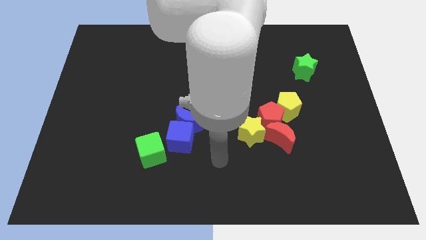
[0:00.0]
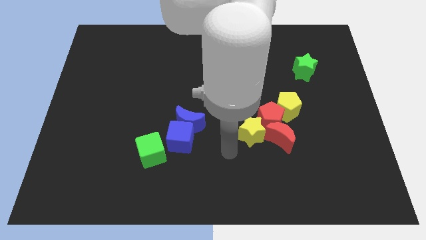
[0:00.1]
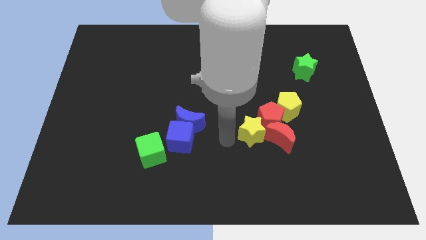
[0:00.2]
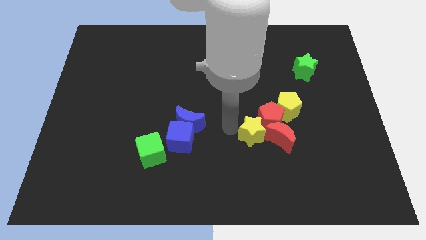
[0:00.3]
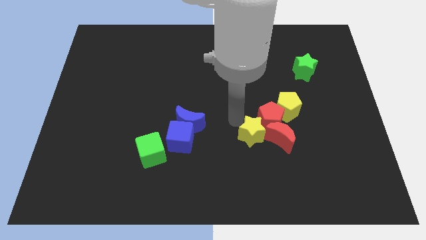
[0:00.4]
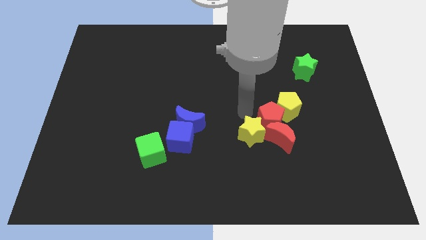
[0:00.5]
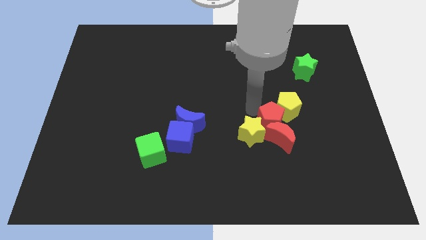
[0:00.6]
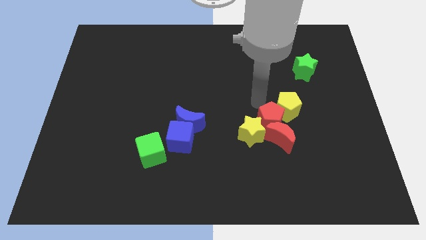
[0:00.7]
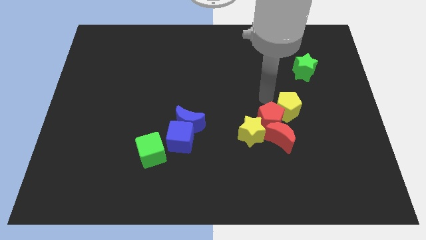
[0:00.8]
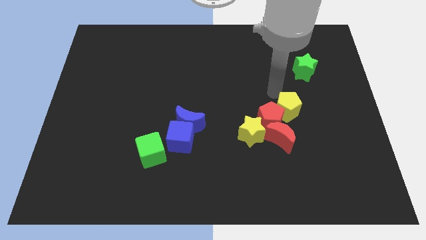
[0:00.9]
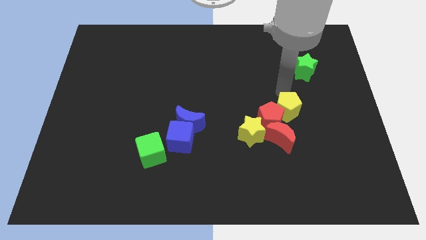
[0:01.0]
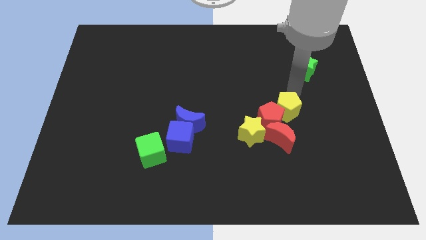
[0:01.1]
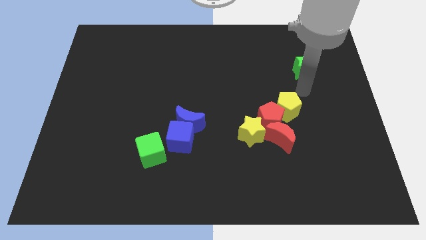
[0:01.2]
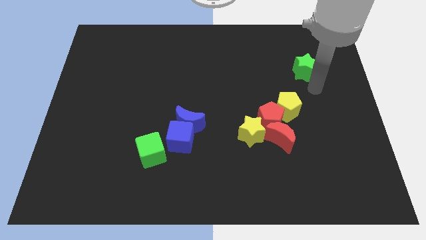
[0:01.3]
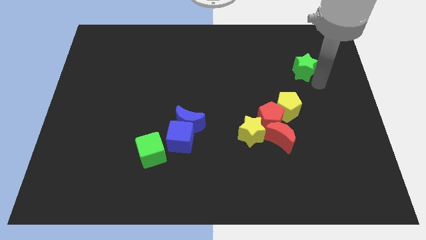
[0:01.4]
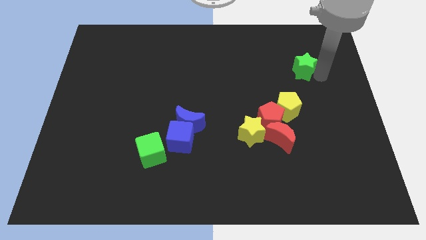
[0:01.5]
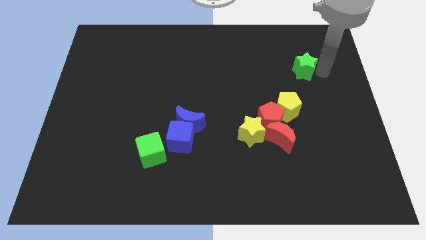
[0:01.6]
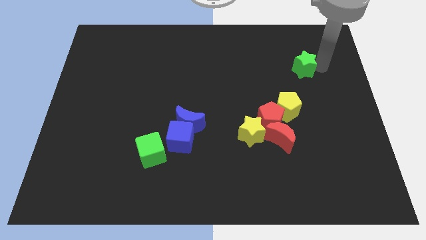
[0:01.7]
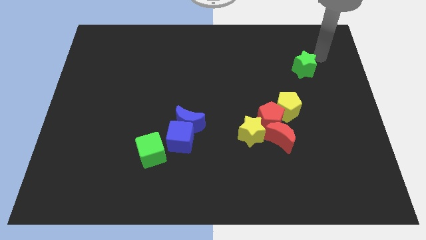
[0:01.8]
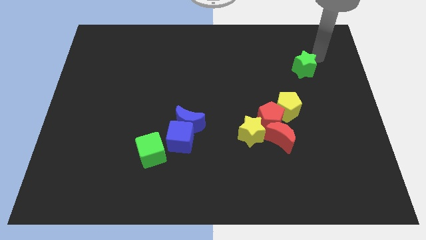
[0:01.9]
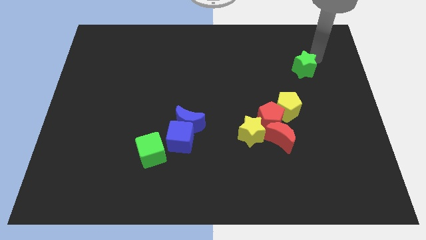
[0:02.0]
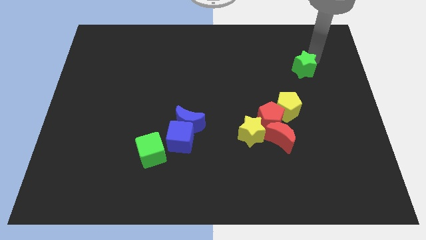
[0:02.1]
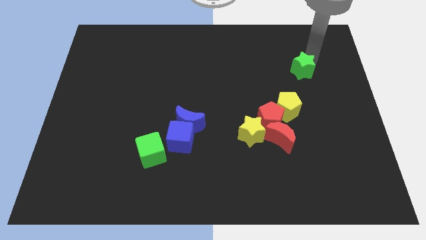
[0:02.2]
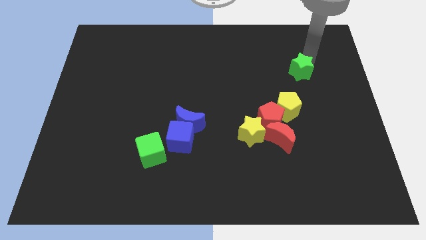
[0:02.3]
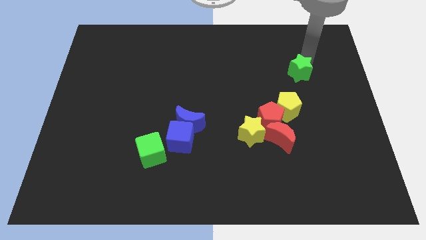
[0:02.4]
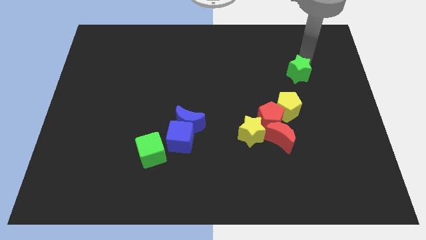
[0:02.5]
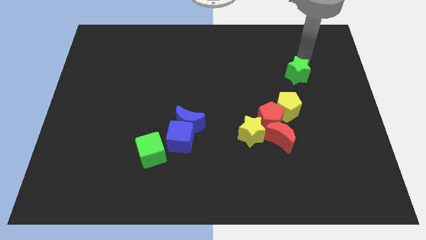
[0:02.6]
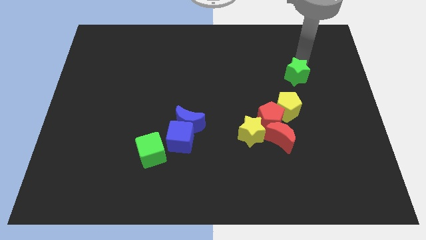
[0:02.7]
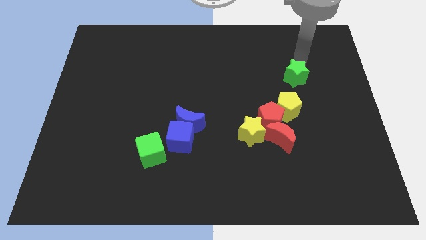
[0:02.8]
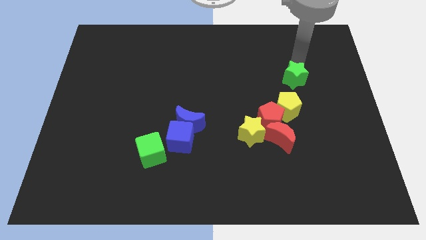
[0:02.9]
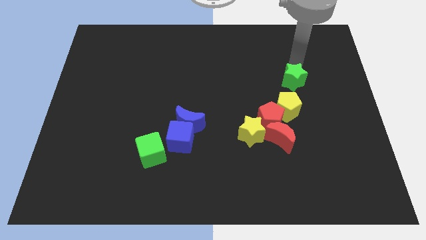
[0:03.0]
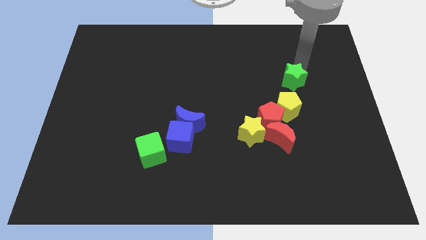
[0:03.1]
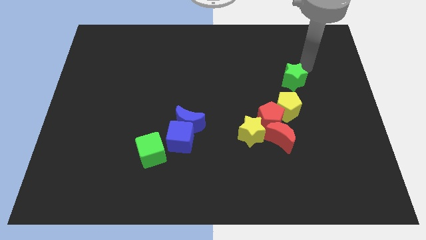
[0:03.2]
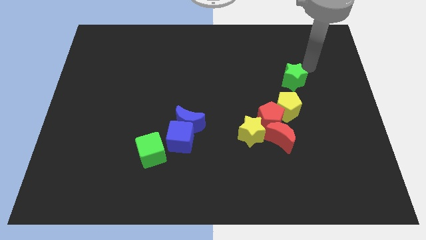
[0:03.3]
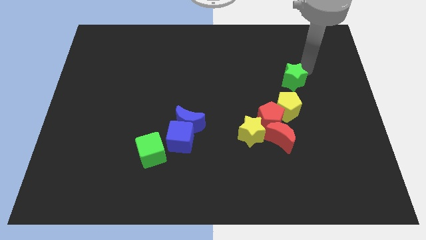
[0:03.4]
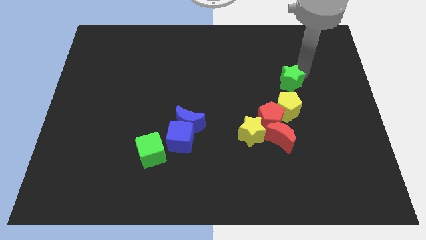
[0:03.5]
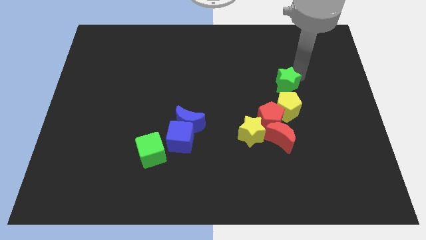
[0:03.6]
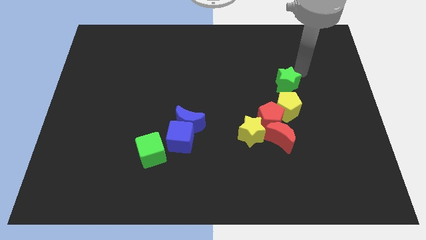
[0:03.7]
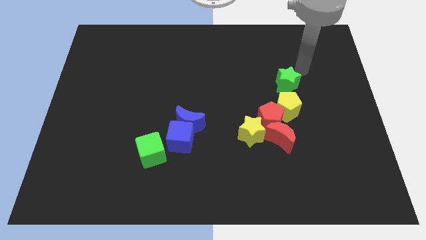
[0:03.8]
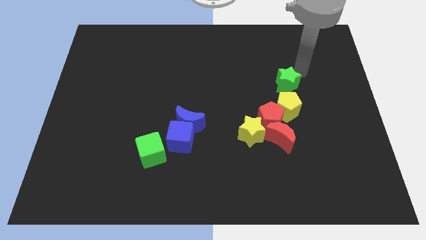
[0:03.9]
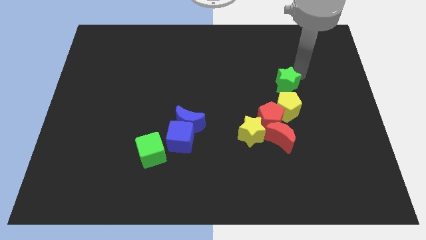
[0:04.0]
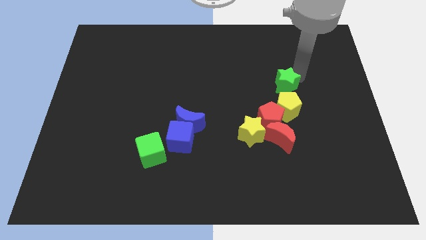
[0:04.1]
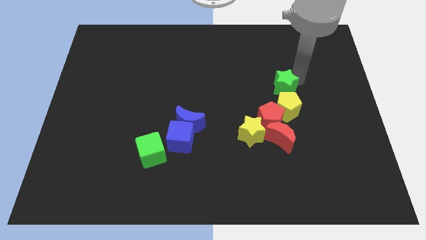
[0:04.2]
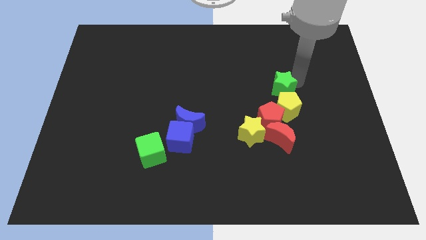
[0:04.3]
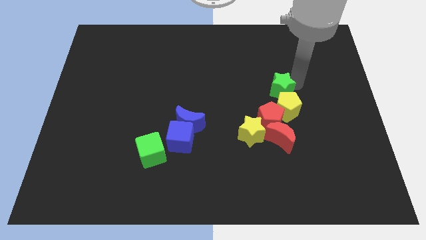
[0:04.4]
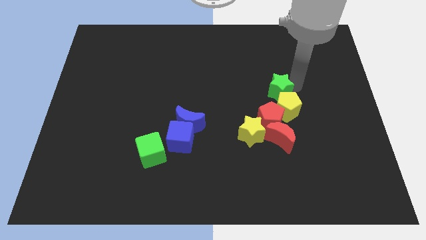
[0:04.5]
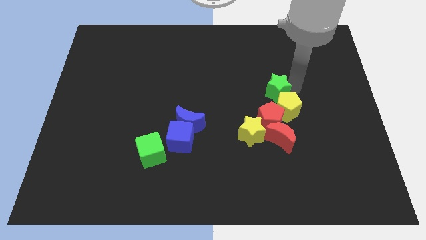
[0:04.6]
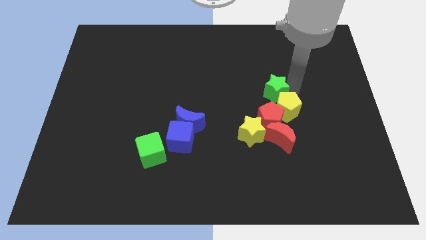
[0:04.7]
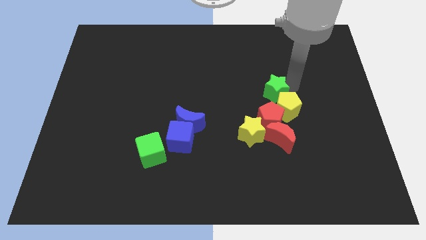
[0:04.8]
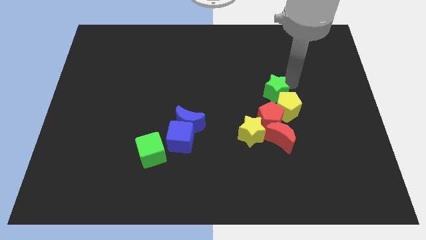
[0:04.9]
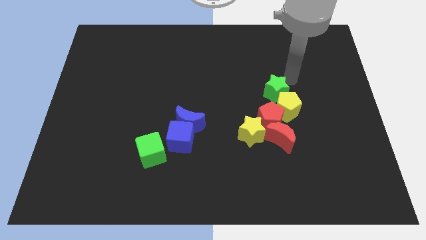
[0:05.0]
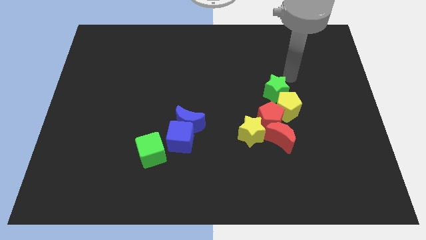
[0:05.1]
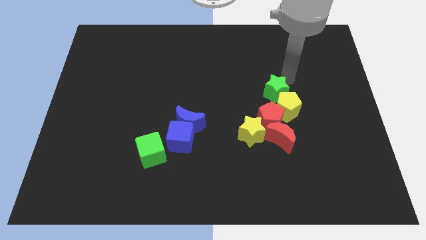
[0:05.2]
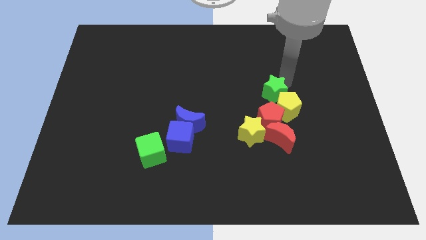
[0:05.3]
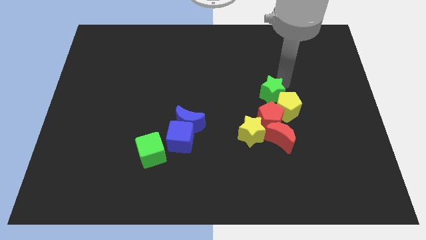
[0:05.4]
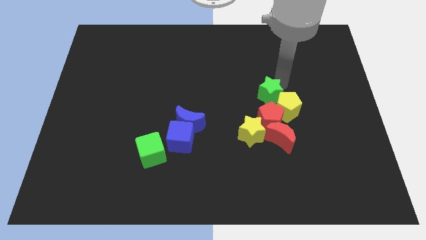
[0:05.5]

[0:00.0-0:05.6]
move the green star left of the yellow pentagon

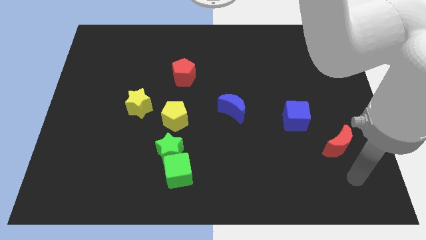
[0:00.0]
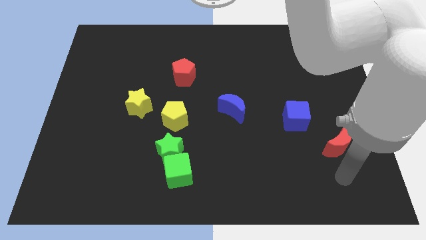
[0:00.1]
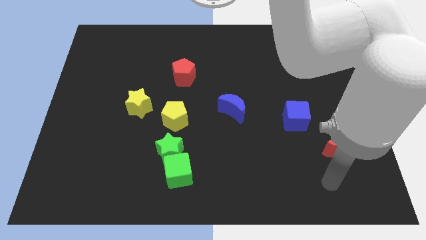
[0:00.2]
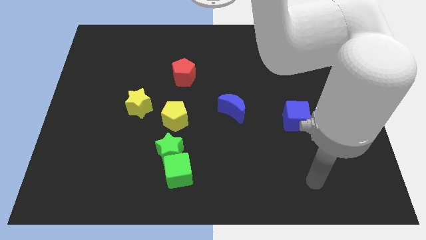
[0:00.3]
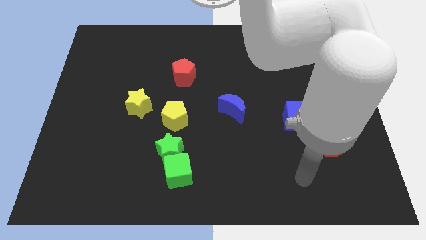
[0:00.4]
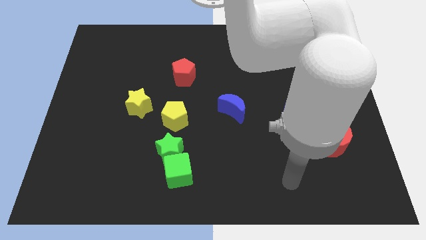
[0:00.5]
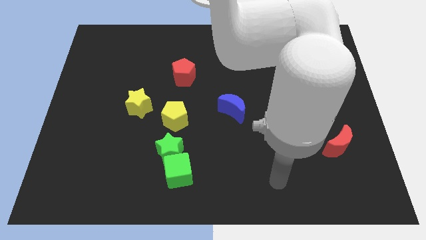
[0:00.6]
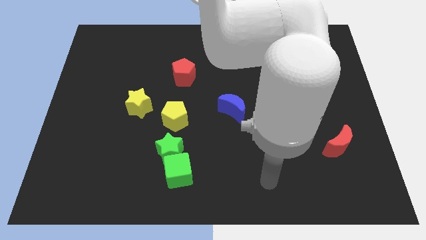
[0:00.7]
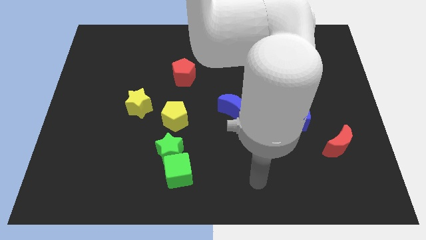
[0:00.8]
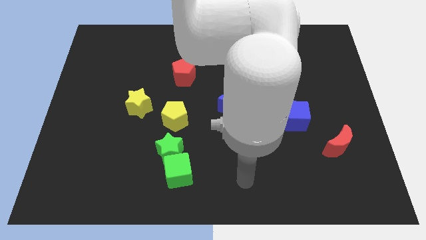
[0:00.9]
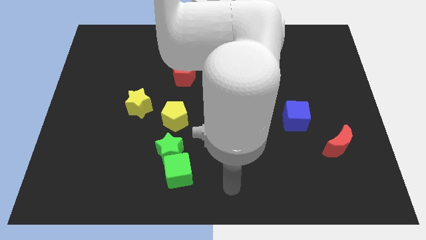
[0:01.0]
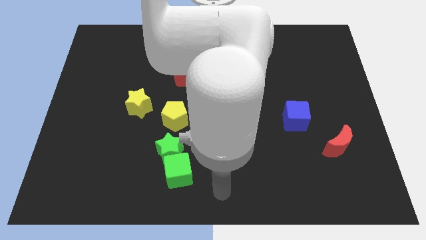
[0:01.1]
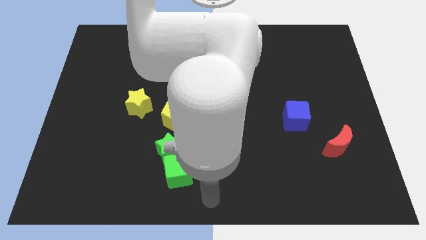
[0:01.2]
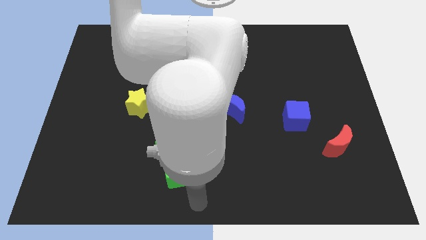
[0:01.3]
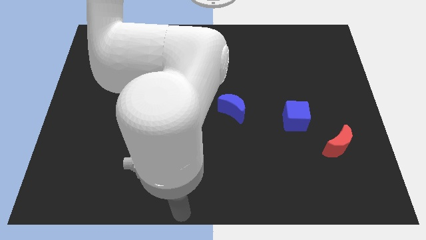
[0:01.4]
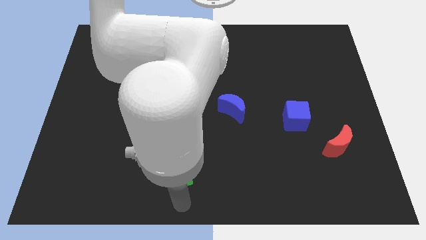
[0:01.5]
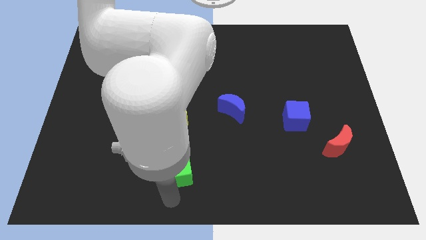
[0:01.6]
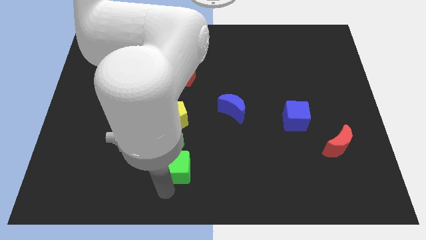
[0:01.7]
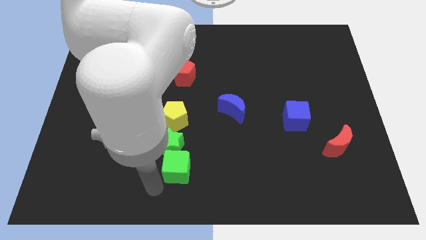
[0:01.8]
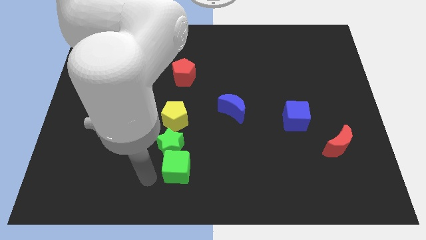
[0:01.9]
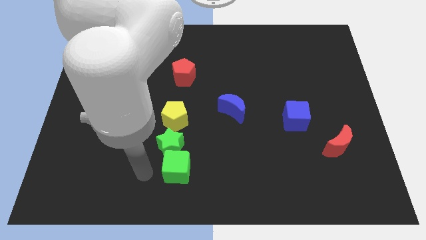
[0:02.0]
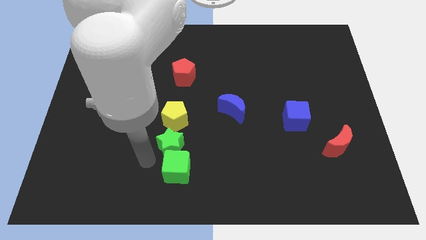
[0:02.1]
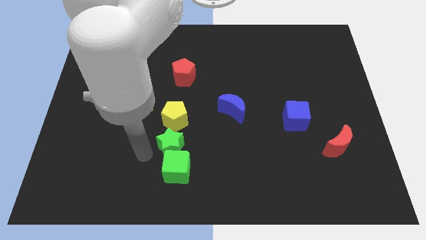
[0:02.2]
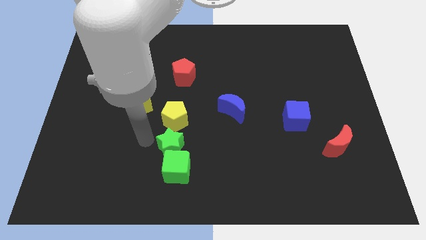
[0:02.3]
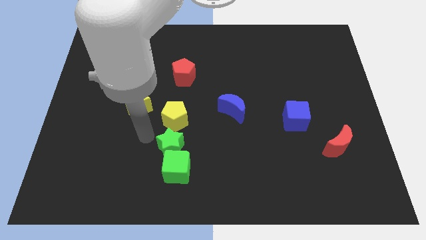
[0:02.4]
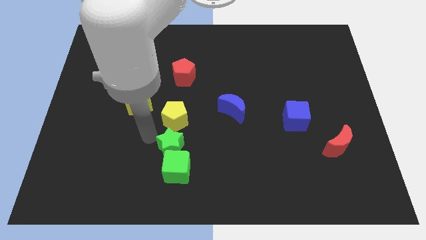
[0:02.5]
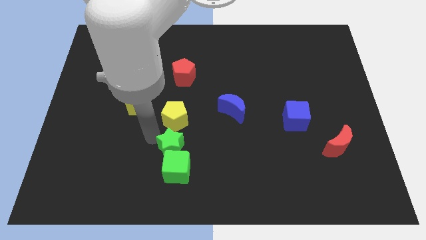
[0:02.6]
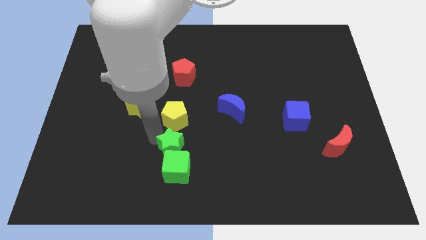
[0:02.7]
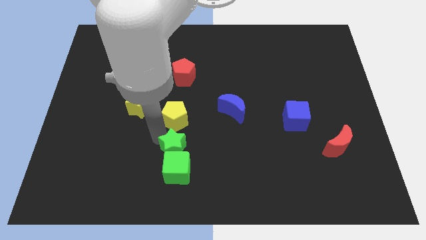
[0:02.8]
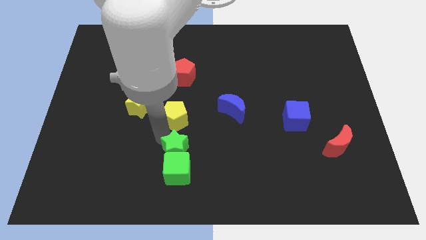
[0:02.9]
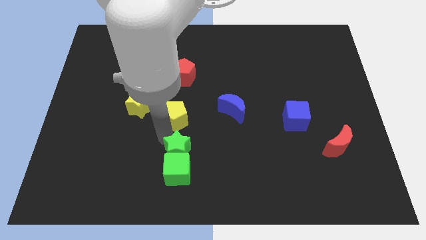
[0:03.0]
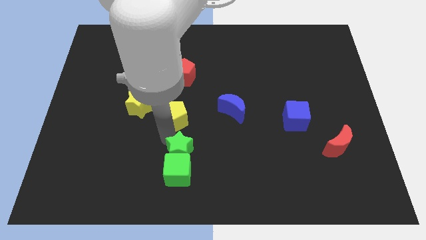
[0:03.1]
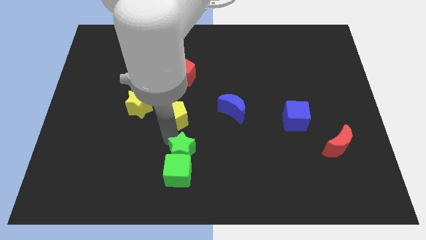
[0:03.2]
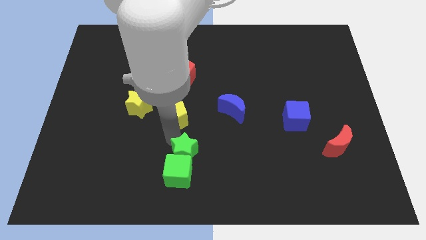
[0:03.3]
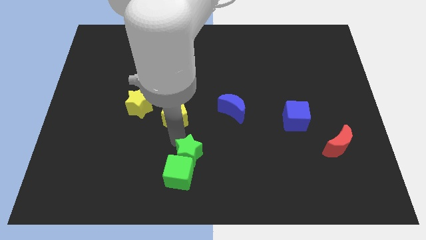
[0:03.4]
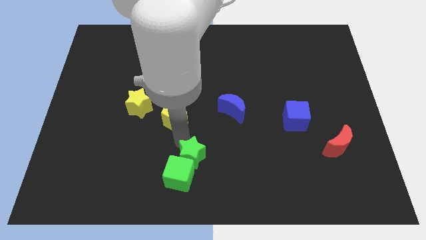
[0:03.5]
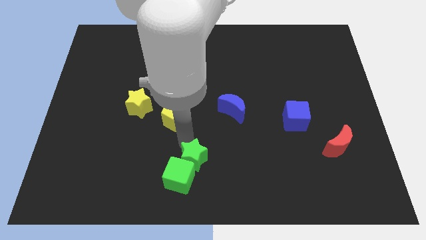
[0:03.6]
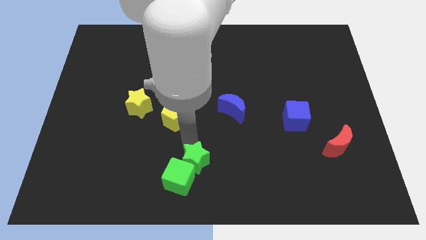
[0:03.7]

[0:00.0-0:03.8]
put the green star to the right side of the green cube
